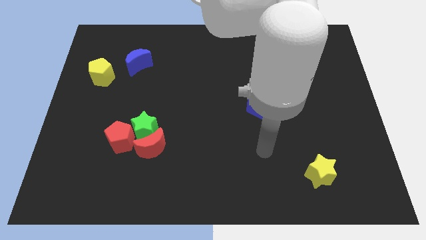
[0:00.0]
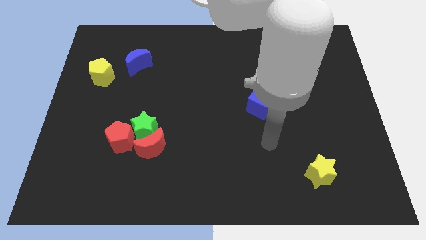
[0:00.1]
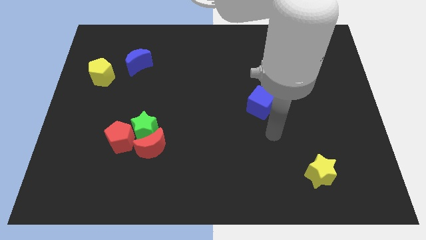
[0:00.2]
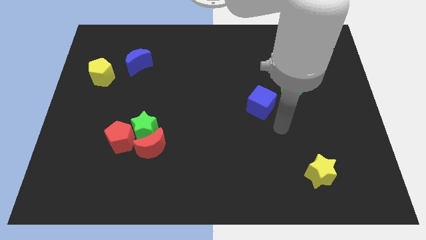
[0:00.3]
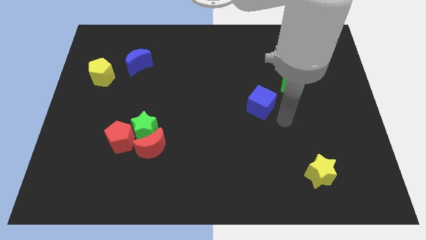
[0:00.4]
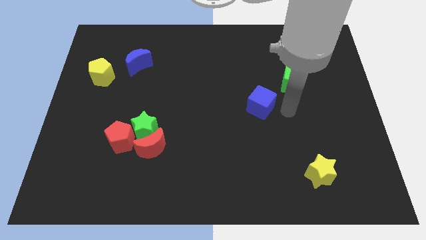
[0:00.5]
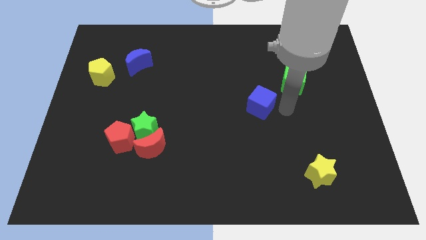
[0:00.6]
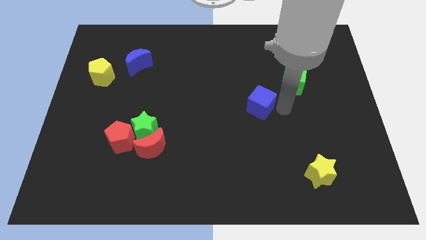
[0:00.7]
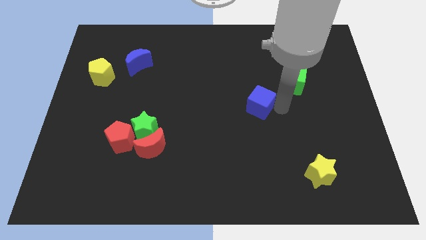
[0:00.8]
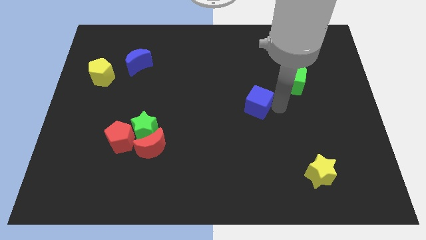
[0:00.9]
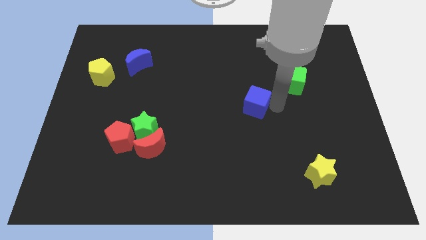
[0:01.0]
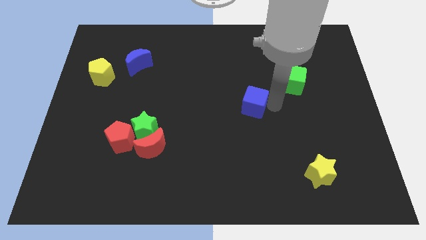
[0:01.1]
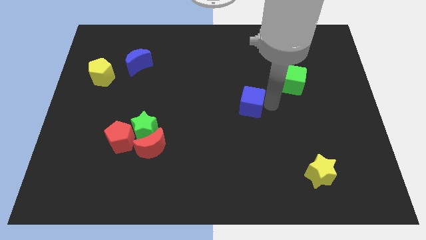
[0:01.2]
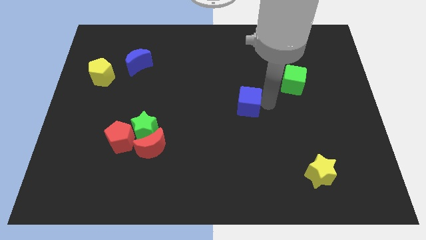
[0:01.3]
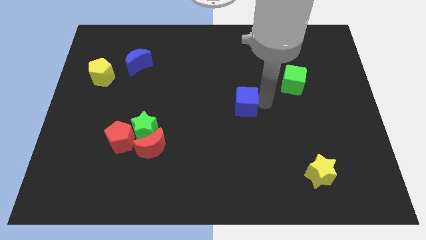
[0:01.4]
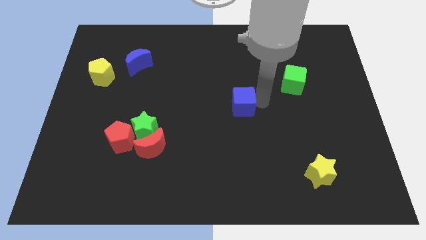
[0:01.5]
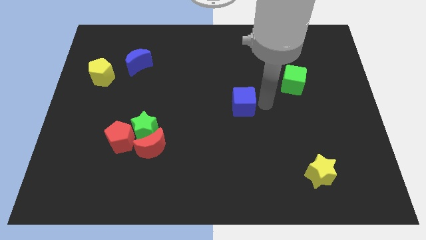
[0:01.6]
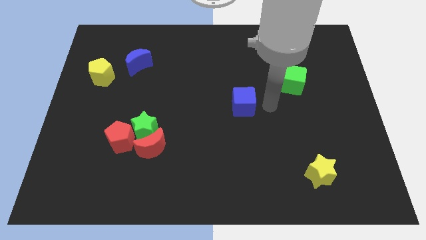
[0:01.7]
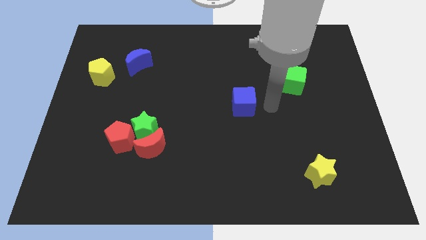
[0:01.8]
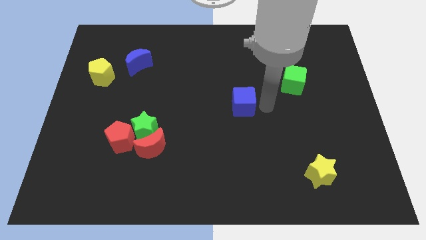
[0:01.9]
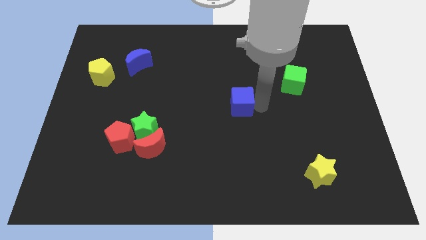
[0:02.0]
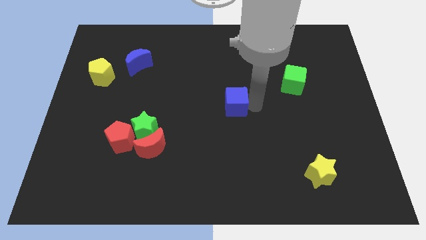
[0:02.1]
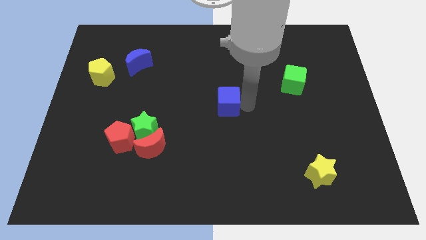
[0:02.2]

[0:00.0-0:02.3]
slide the blue cube a bit to the left

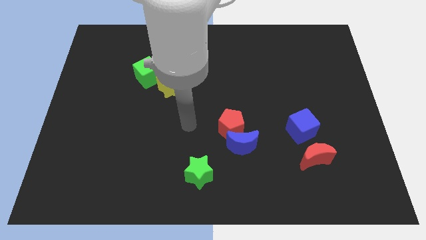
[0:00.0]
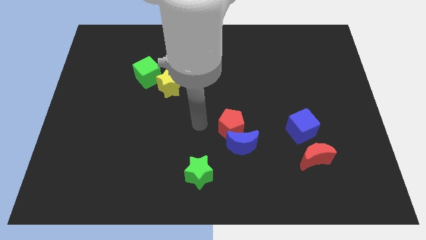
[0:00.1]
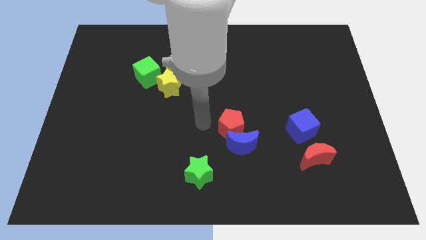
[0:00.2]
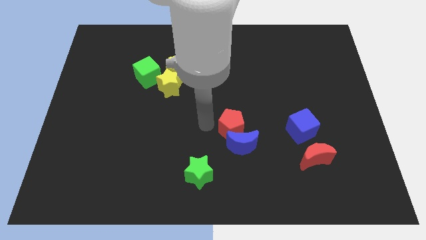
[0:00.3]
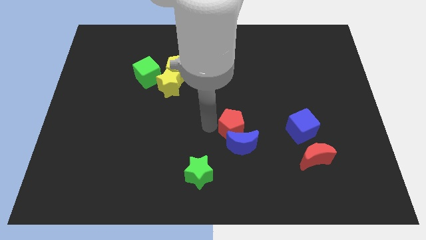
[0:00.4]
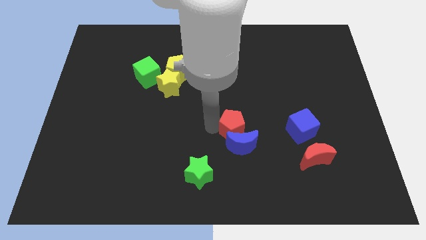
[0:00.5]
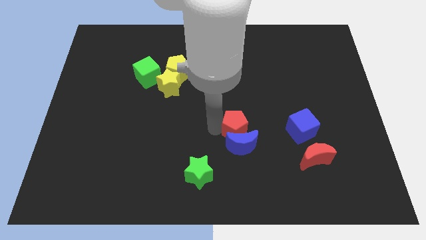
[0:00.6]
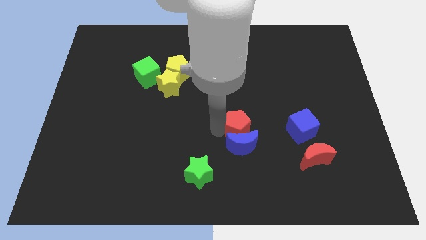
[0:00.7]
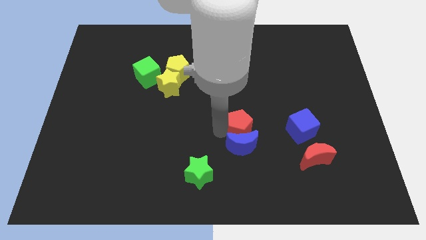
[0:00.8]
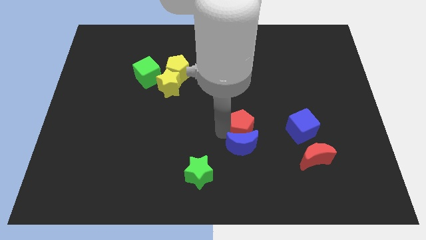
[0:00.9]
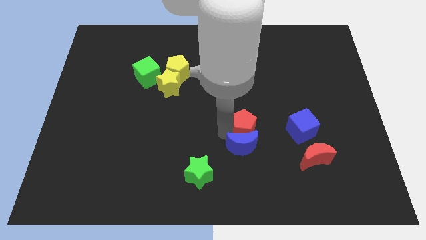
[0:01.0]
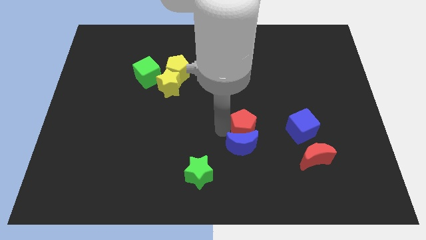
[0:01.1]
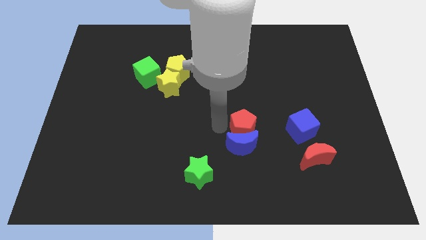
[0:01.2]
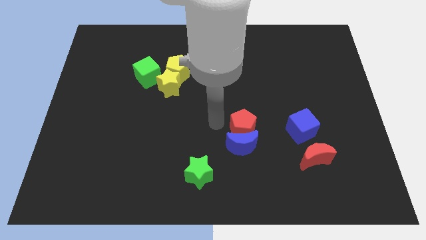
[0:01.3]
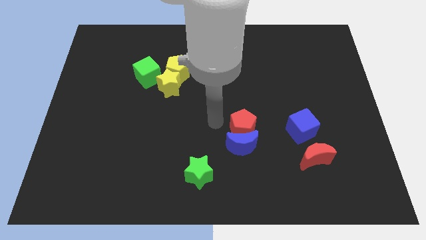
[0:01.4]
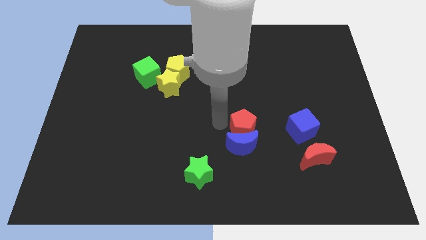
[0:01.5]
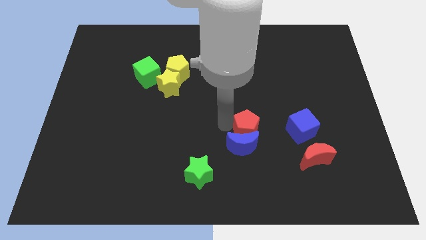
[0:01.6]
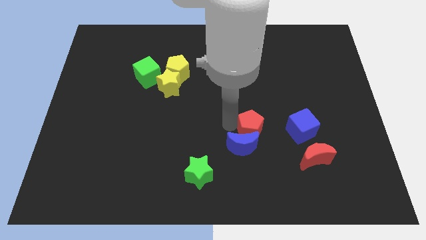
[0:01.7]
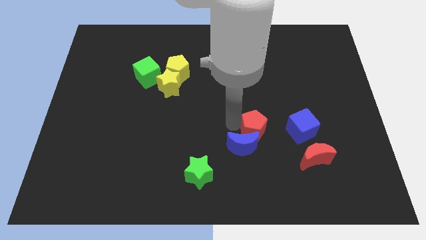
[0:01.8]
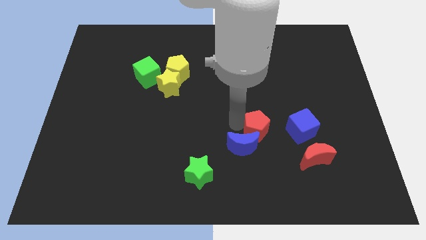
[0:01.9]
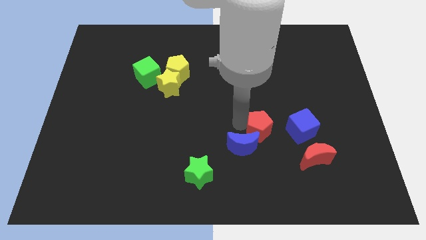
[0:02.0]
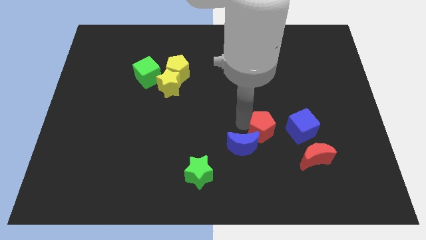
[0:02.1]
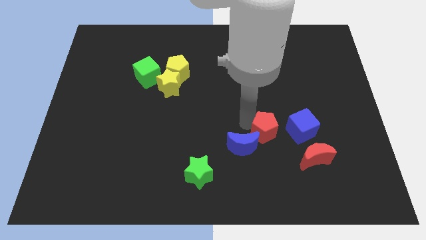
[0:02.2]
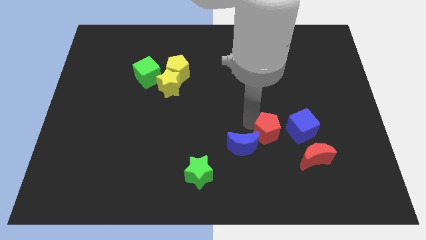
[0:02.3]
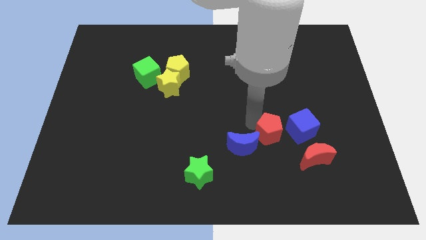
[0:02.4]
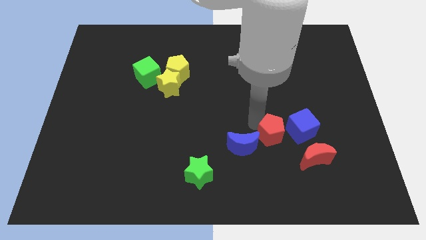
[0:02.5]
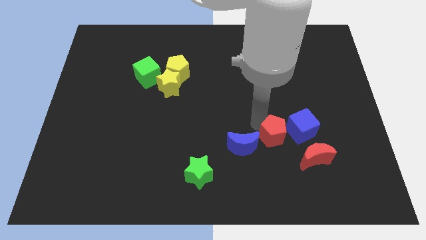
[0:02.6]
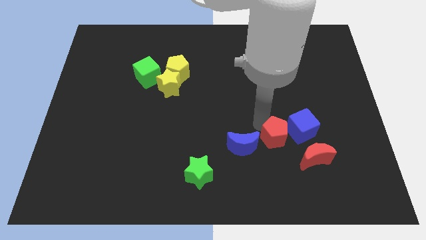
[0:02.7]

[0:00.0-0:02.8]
move the red pentagon down and then to the right a little bit

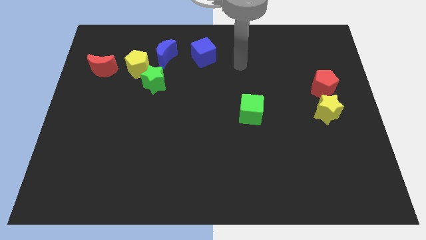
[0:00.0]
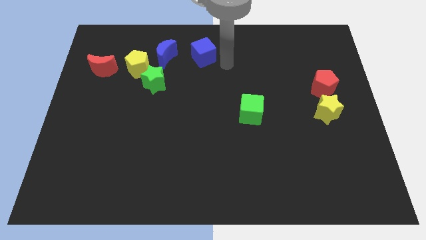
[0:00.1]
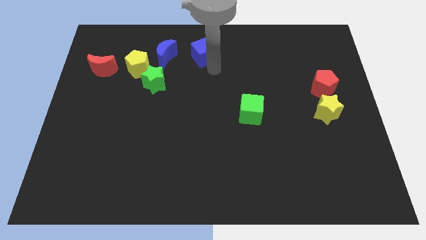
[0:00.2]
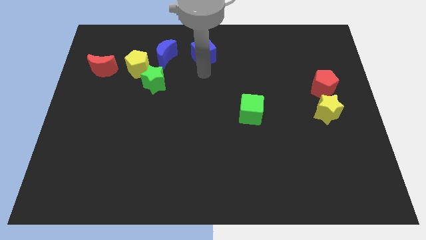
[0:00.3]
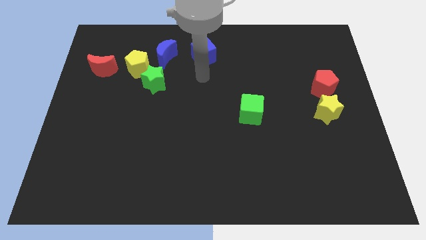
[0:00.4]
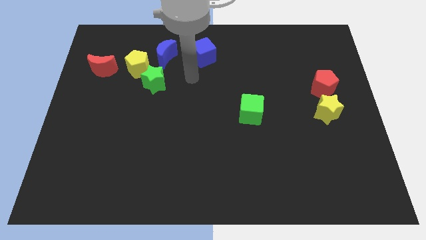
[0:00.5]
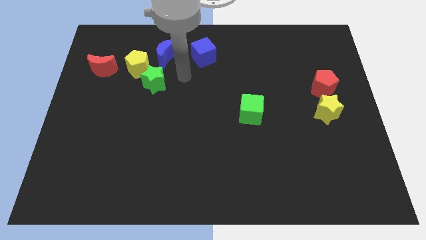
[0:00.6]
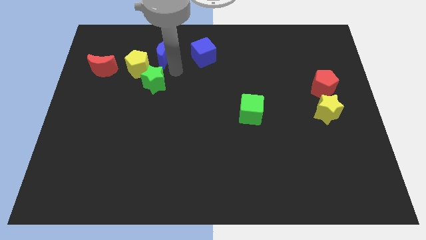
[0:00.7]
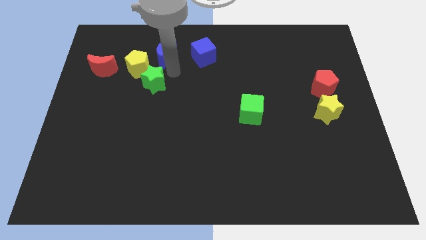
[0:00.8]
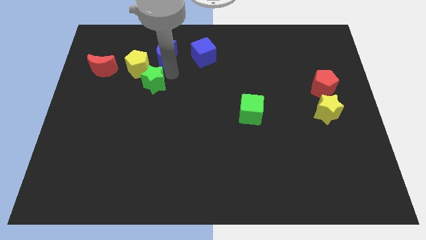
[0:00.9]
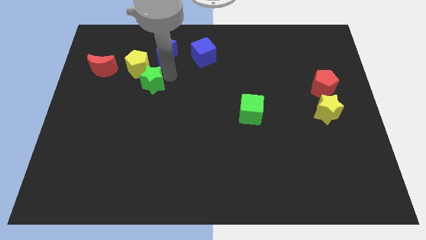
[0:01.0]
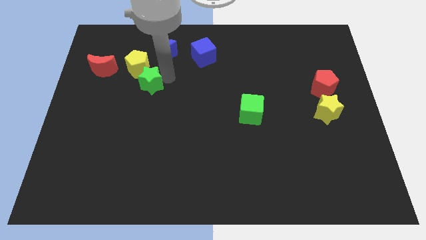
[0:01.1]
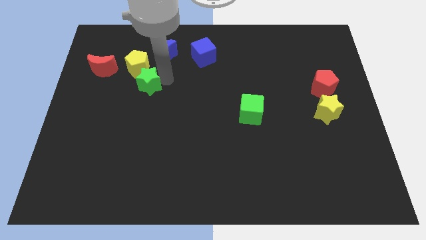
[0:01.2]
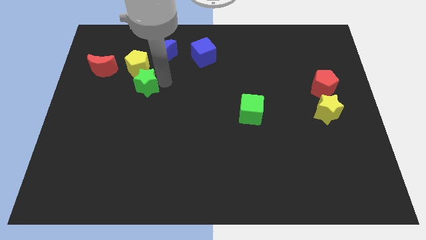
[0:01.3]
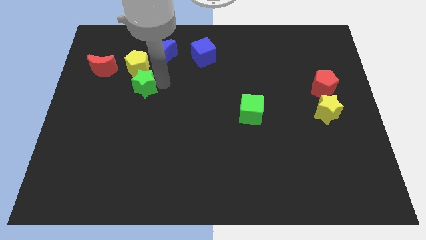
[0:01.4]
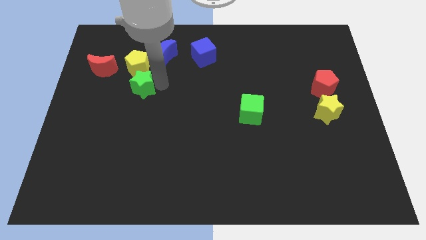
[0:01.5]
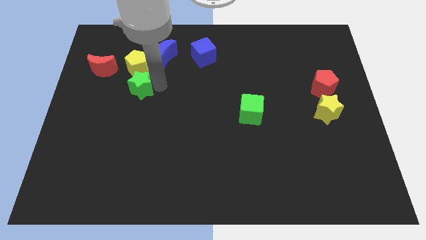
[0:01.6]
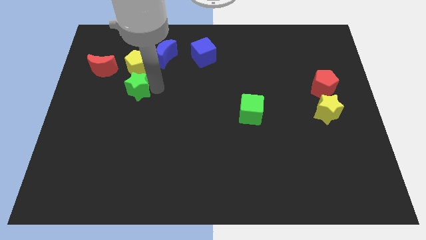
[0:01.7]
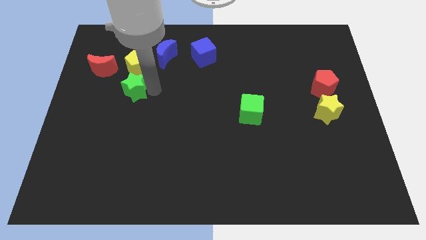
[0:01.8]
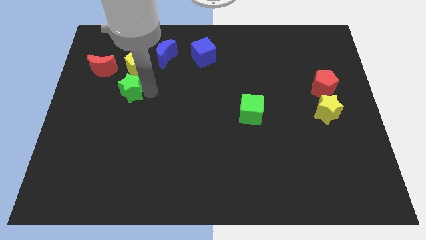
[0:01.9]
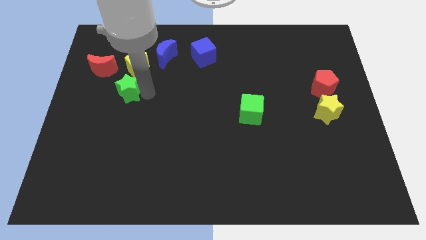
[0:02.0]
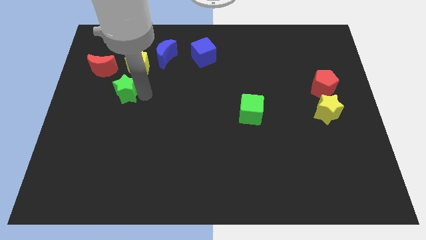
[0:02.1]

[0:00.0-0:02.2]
slightly push the green star diagonally downwards and left

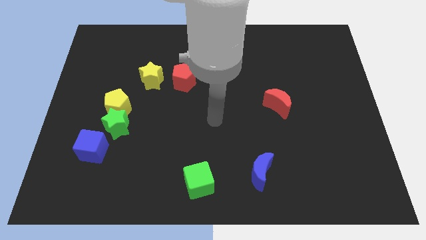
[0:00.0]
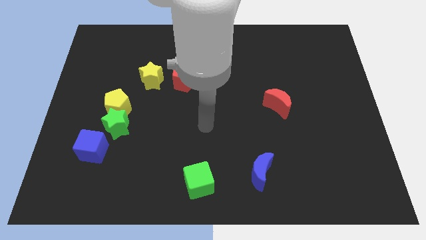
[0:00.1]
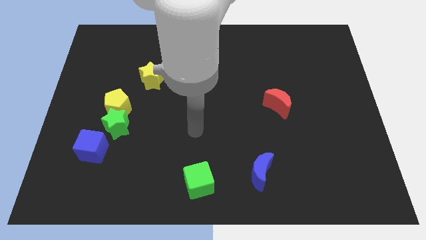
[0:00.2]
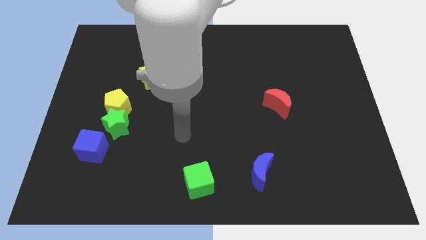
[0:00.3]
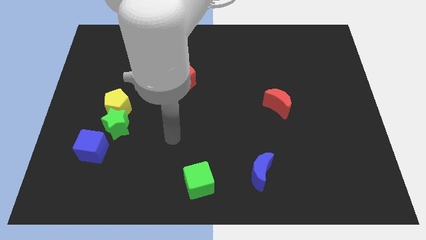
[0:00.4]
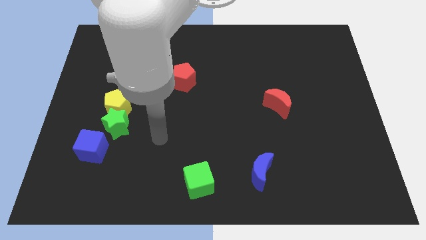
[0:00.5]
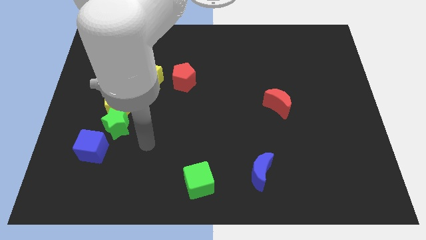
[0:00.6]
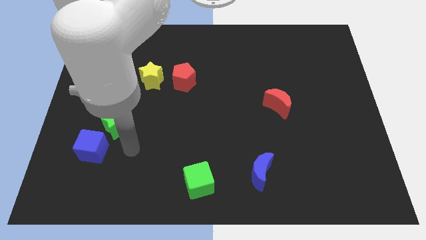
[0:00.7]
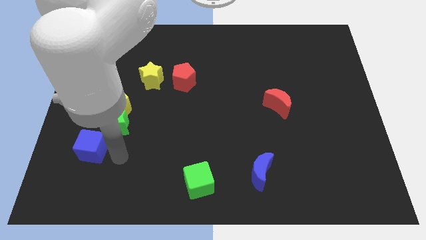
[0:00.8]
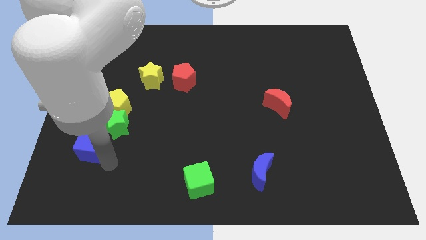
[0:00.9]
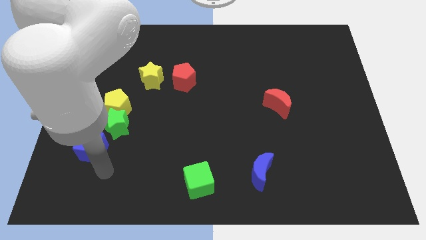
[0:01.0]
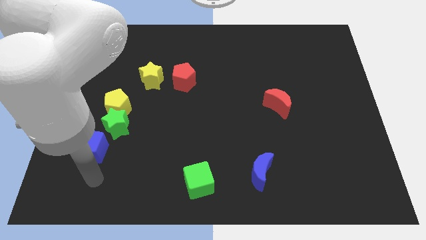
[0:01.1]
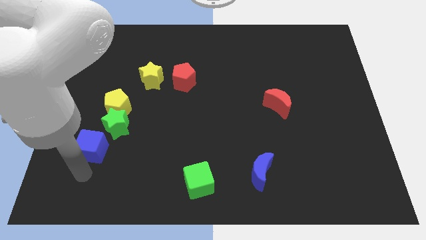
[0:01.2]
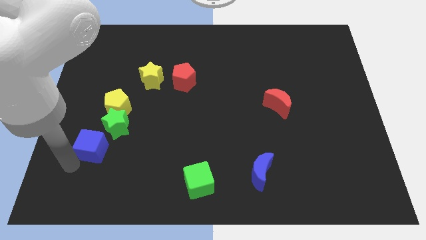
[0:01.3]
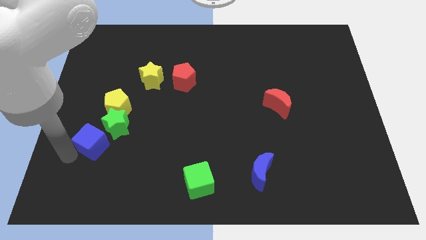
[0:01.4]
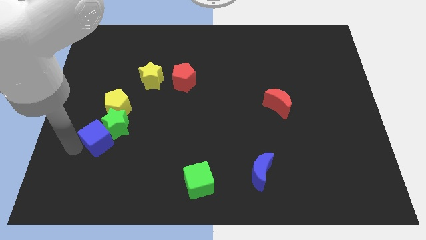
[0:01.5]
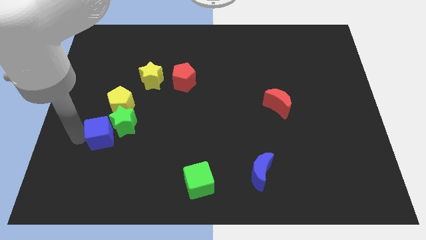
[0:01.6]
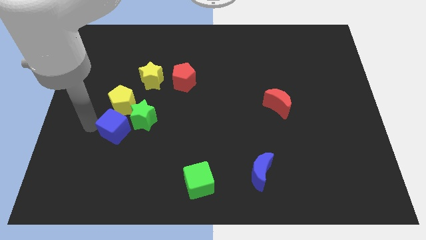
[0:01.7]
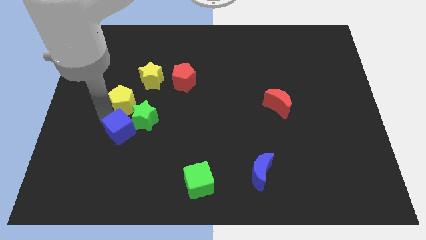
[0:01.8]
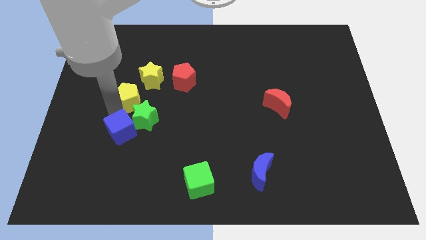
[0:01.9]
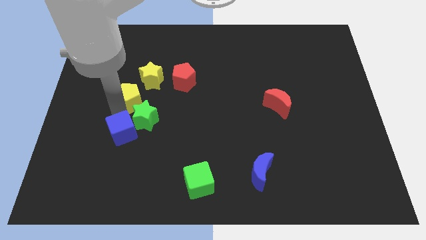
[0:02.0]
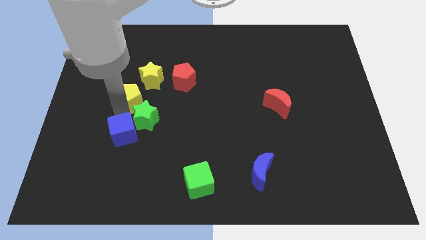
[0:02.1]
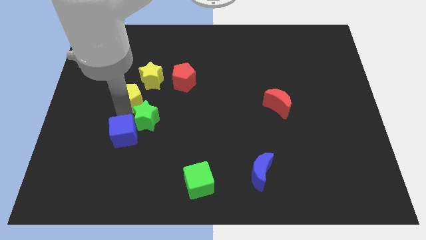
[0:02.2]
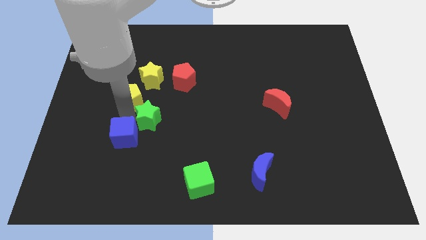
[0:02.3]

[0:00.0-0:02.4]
push the green star a bit to the right
